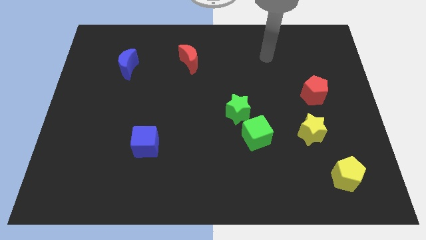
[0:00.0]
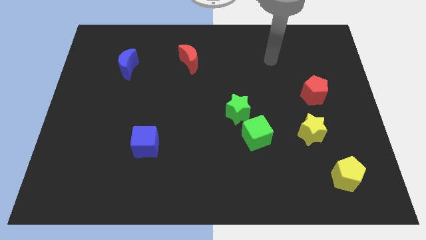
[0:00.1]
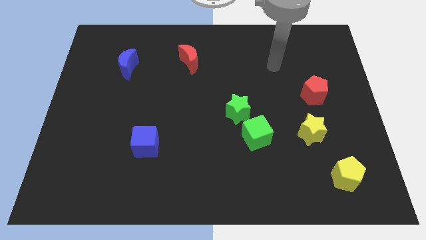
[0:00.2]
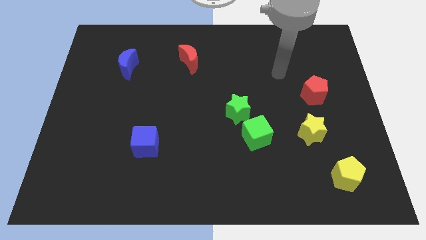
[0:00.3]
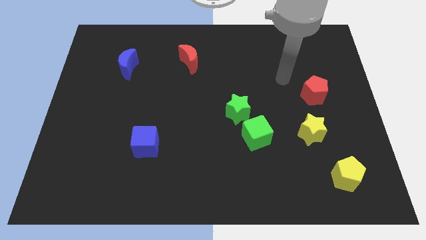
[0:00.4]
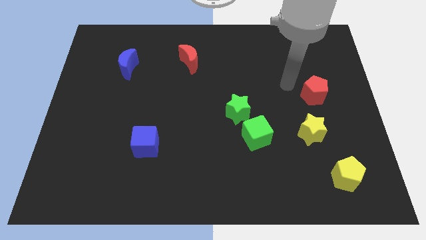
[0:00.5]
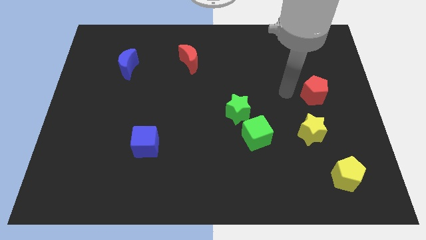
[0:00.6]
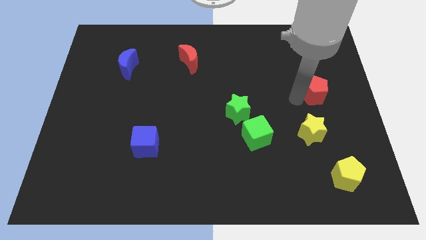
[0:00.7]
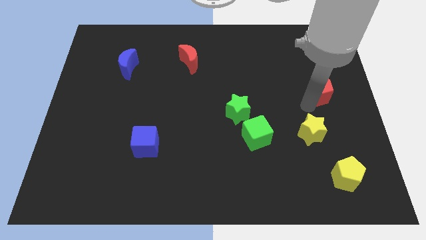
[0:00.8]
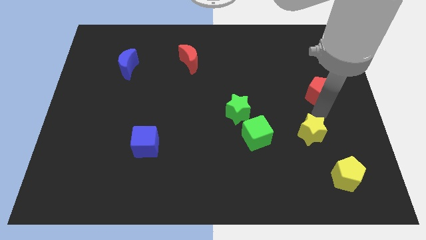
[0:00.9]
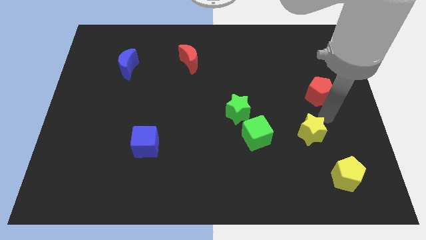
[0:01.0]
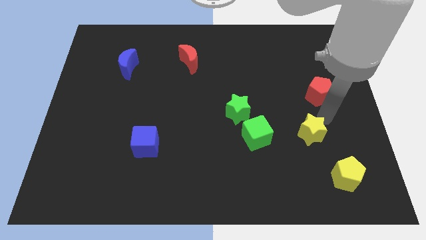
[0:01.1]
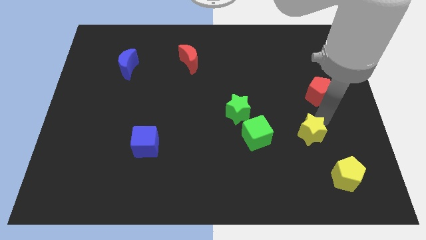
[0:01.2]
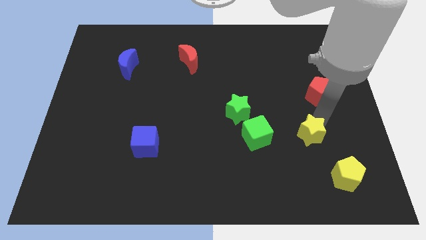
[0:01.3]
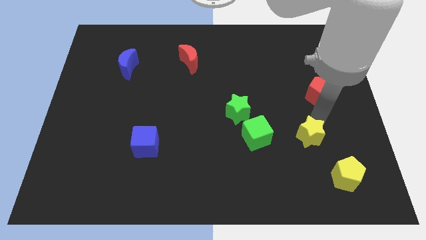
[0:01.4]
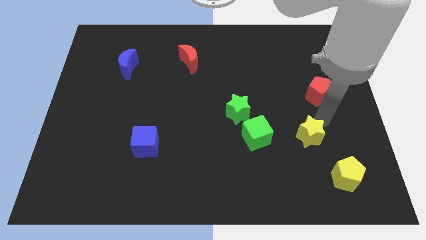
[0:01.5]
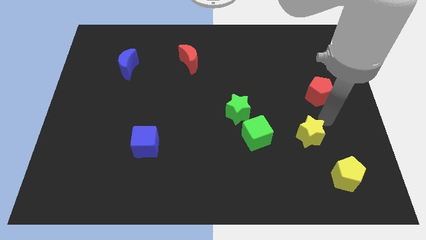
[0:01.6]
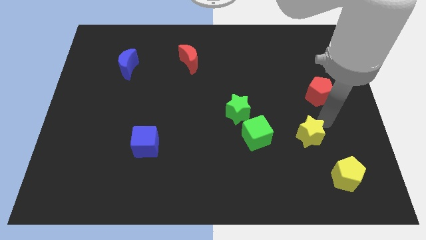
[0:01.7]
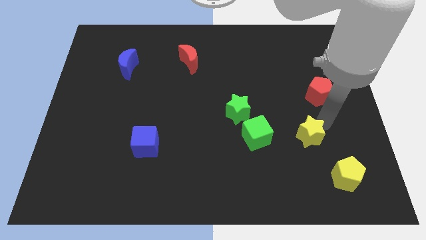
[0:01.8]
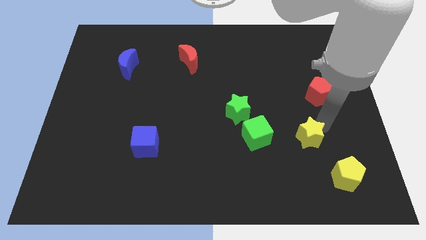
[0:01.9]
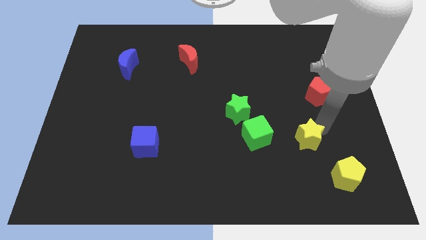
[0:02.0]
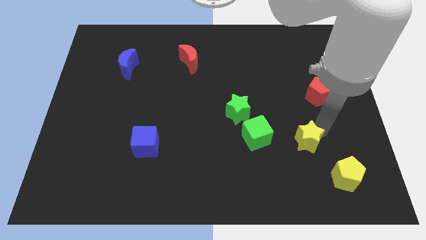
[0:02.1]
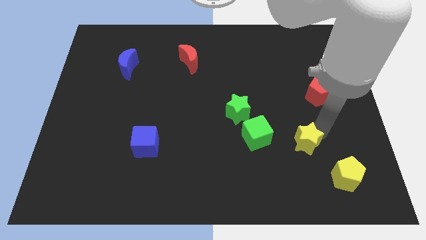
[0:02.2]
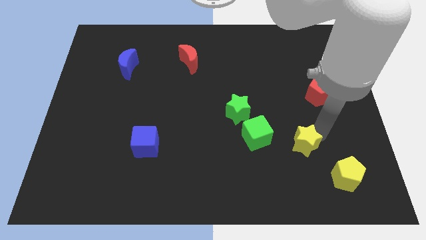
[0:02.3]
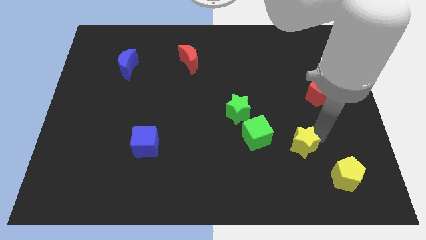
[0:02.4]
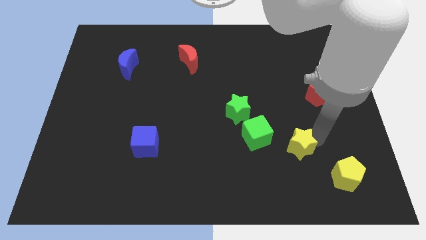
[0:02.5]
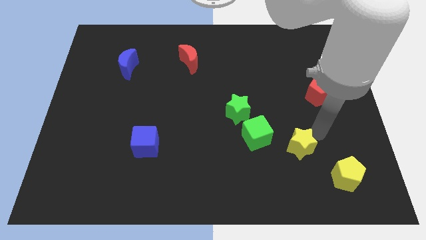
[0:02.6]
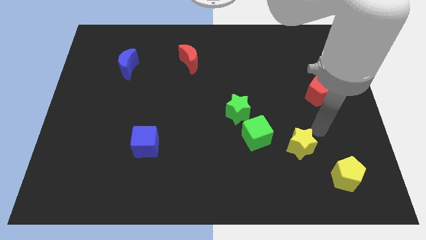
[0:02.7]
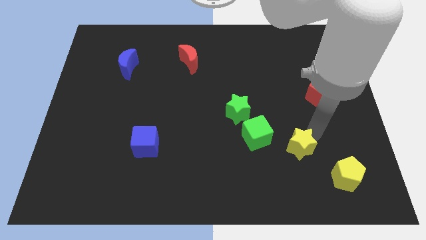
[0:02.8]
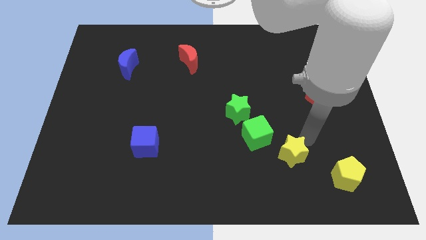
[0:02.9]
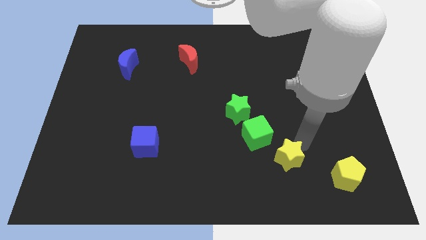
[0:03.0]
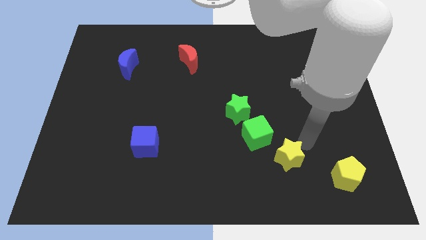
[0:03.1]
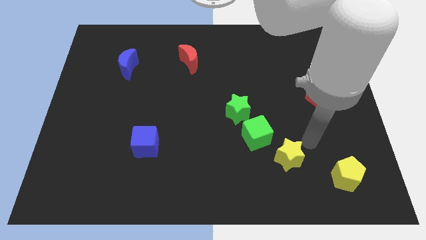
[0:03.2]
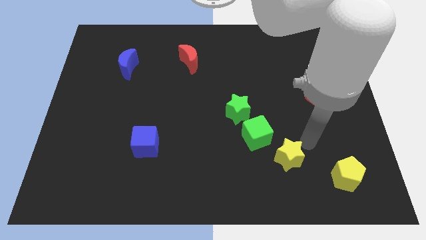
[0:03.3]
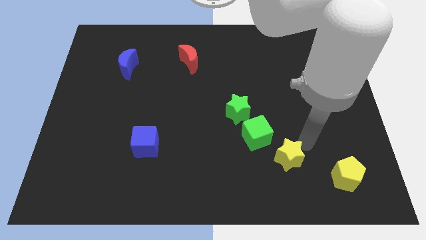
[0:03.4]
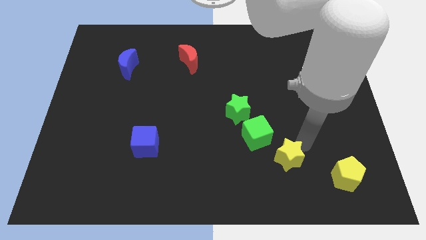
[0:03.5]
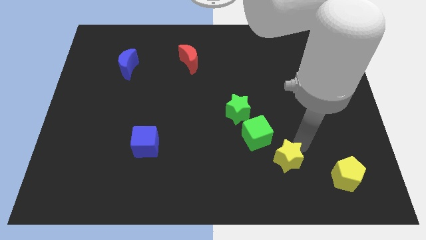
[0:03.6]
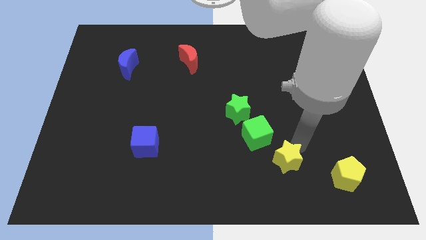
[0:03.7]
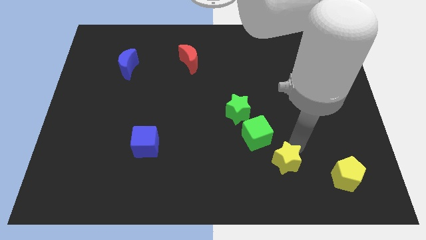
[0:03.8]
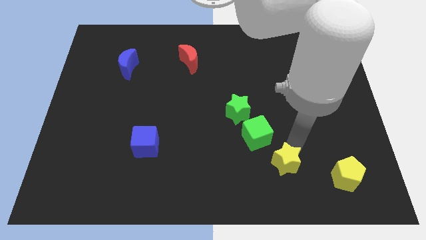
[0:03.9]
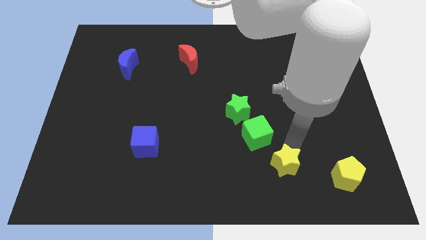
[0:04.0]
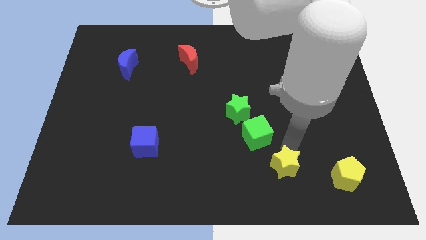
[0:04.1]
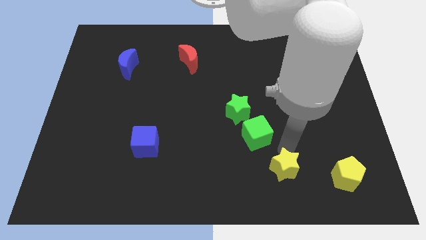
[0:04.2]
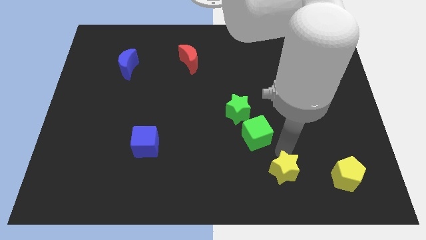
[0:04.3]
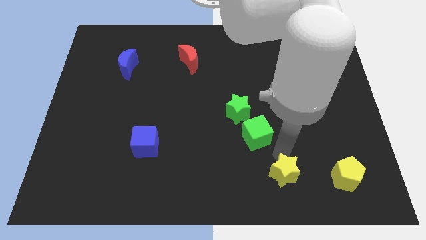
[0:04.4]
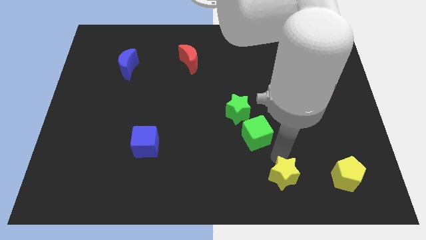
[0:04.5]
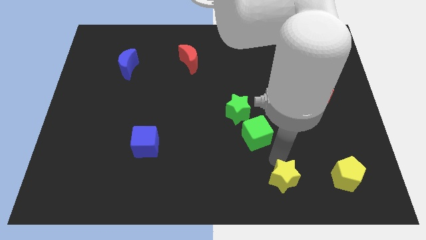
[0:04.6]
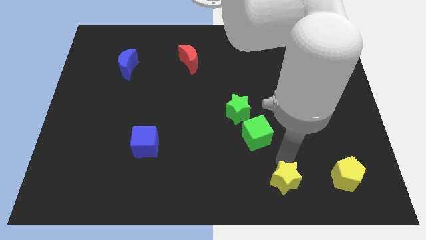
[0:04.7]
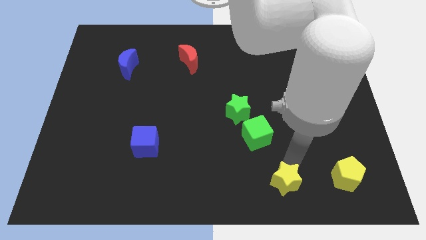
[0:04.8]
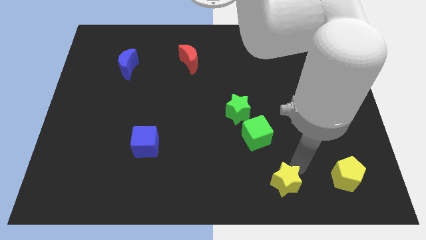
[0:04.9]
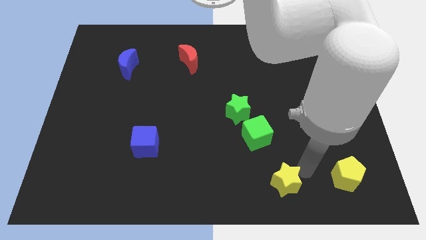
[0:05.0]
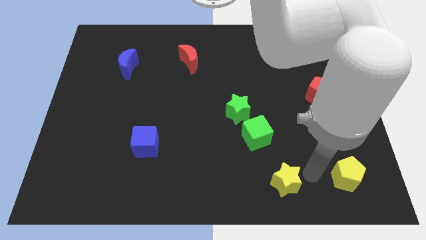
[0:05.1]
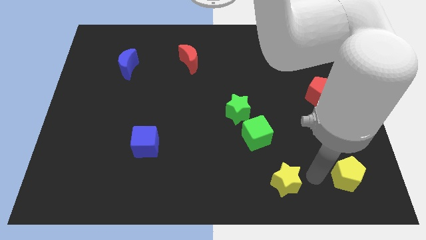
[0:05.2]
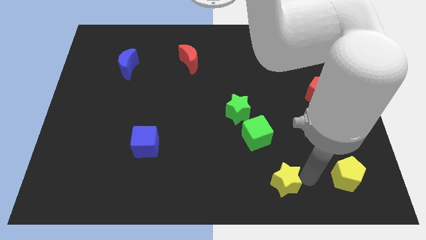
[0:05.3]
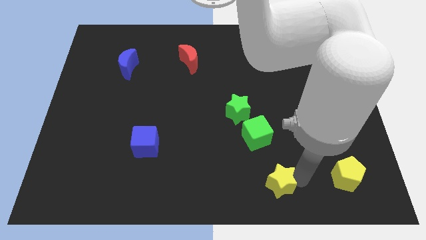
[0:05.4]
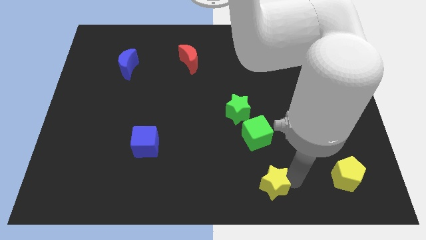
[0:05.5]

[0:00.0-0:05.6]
push the yellow star to the bottom side
